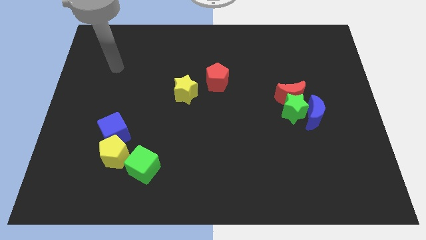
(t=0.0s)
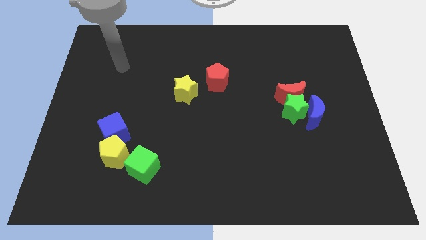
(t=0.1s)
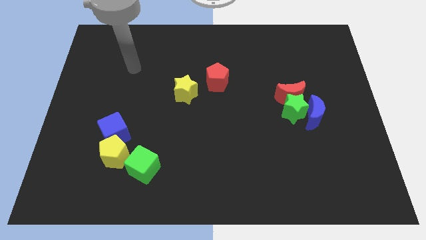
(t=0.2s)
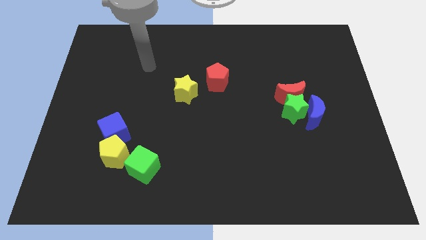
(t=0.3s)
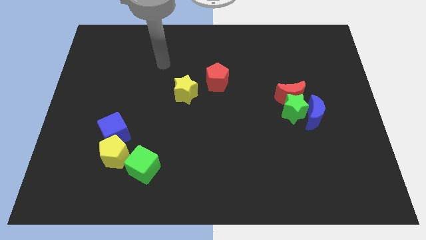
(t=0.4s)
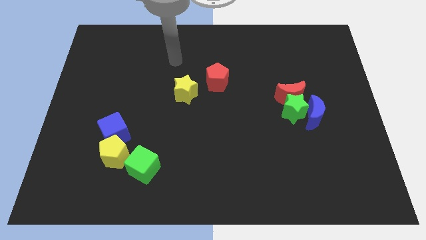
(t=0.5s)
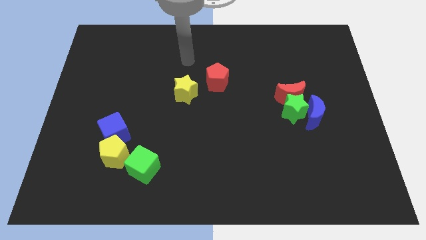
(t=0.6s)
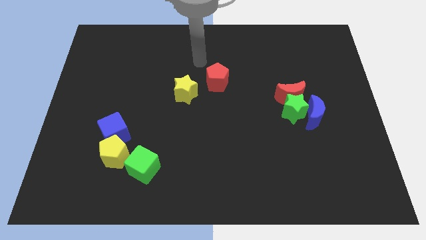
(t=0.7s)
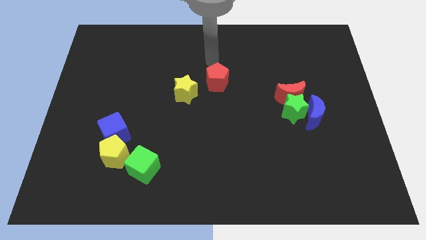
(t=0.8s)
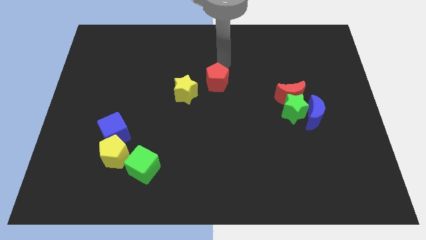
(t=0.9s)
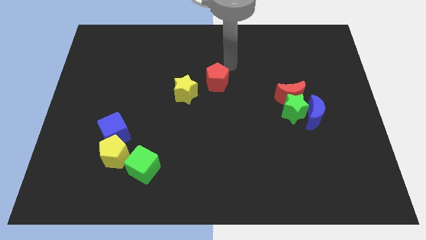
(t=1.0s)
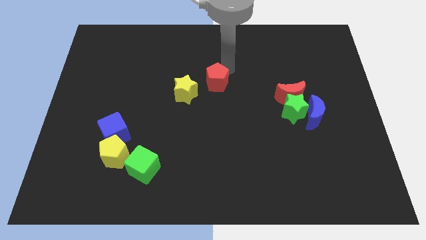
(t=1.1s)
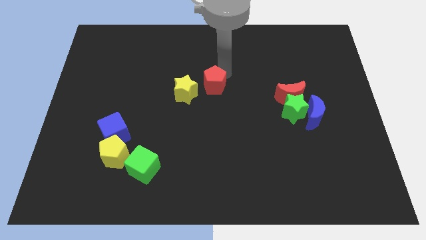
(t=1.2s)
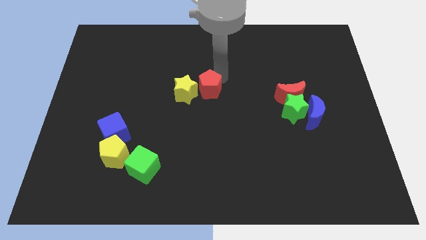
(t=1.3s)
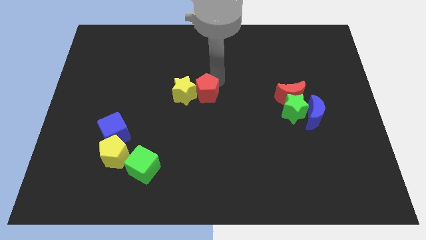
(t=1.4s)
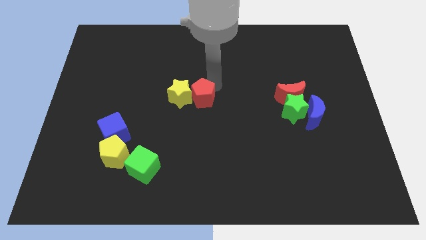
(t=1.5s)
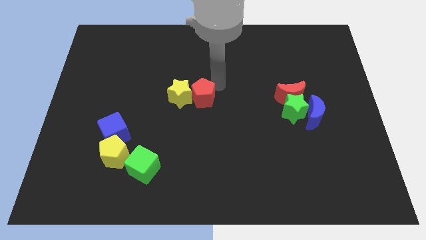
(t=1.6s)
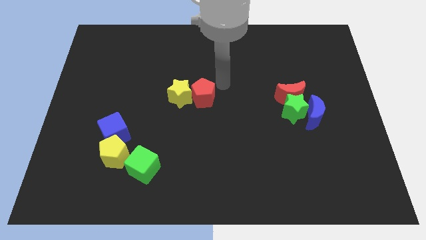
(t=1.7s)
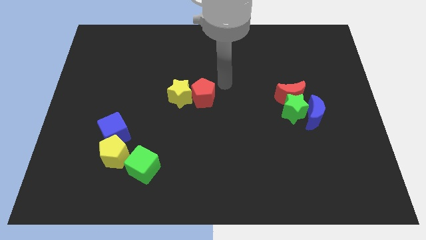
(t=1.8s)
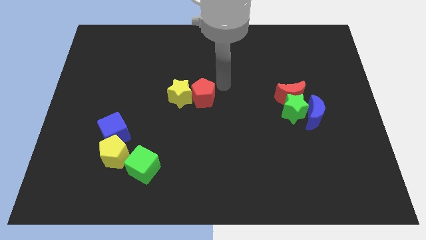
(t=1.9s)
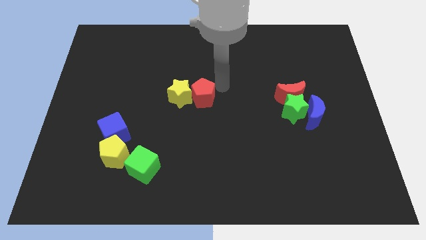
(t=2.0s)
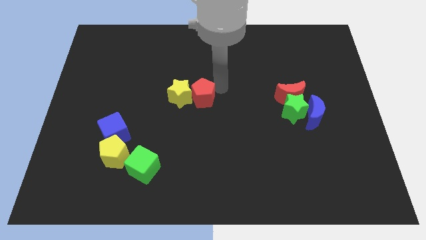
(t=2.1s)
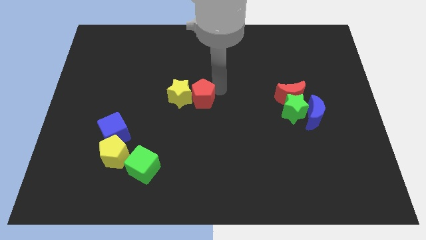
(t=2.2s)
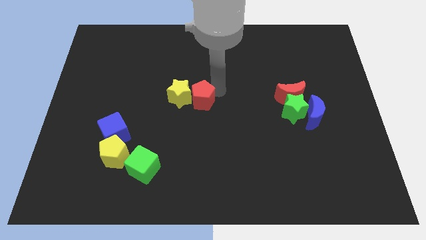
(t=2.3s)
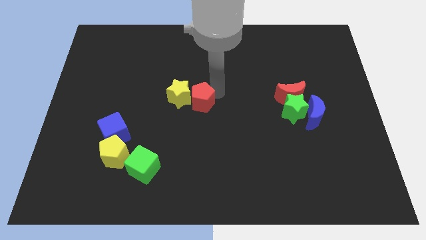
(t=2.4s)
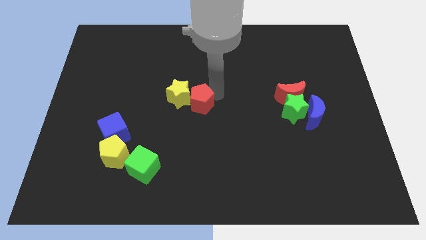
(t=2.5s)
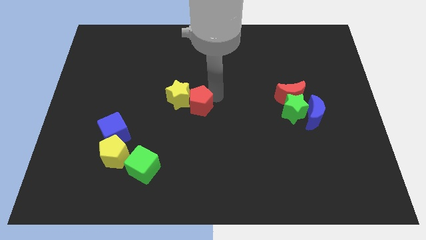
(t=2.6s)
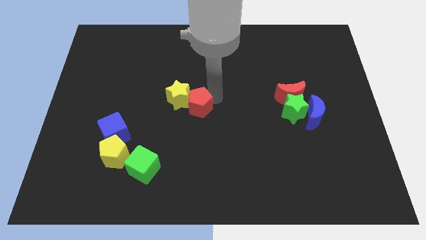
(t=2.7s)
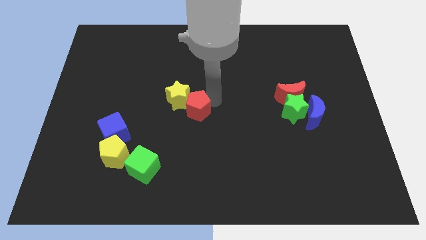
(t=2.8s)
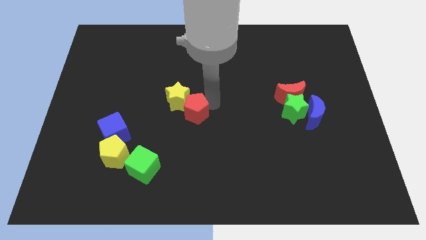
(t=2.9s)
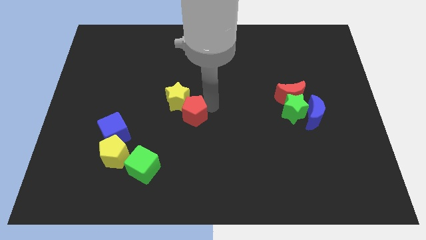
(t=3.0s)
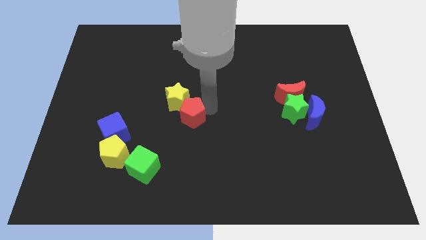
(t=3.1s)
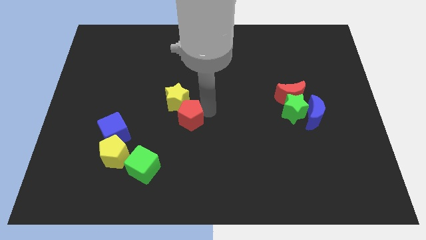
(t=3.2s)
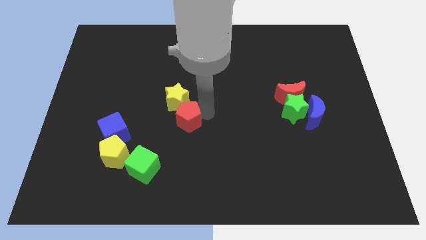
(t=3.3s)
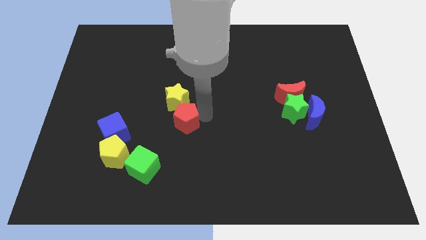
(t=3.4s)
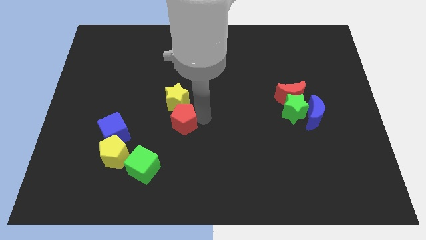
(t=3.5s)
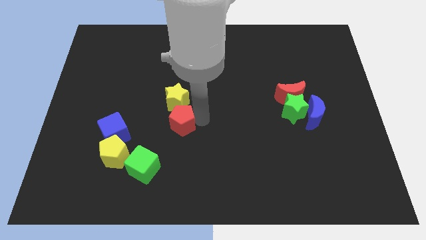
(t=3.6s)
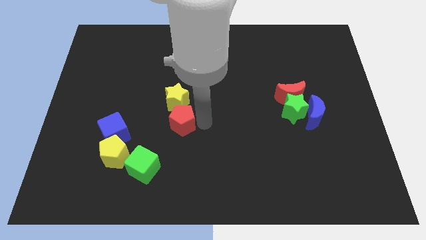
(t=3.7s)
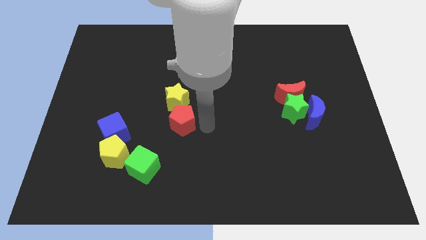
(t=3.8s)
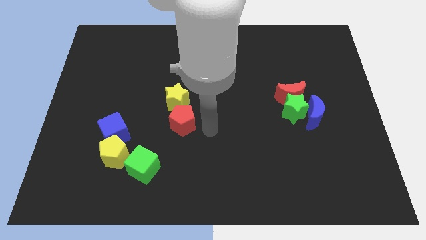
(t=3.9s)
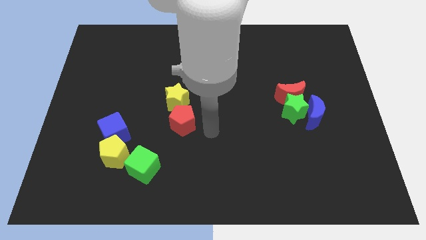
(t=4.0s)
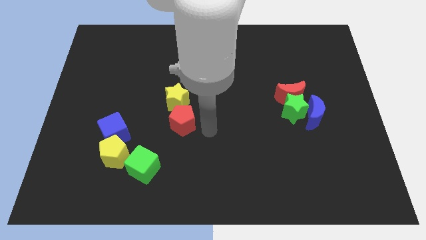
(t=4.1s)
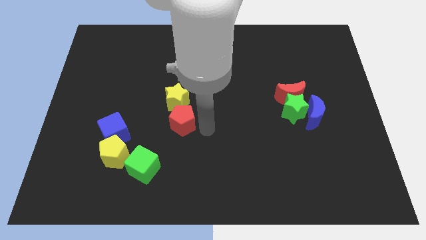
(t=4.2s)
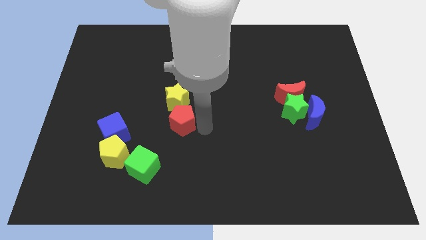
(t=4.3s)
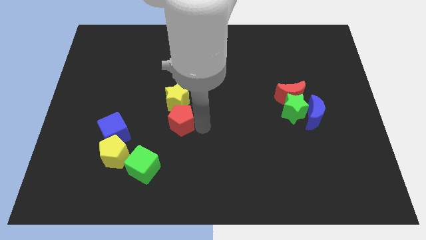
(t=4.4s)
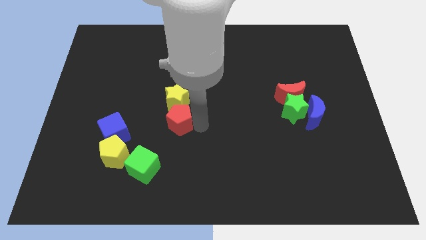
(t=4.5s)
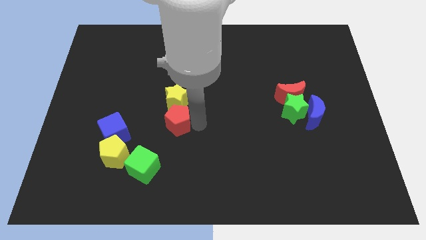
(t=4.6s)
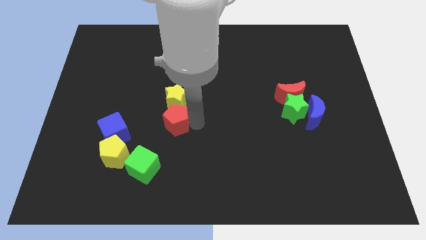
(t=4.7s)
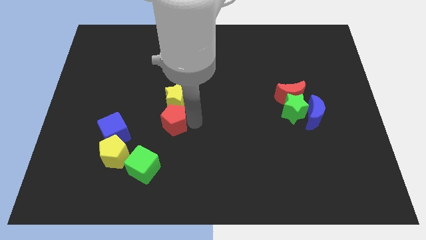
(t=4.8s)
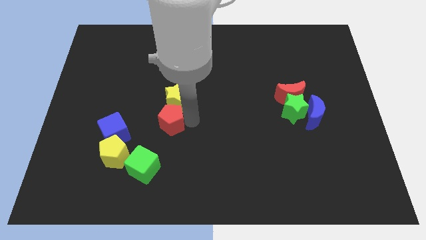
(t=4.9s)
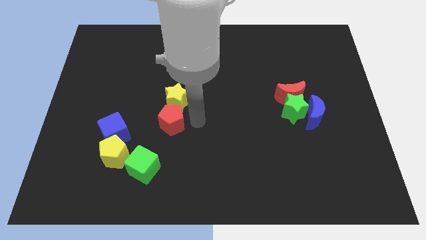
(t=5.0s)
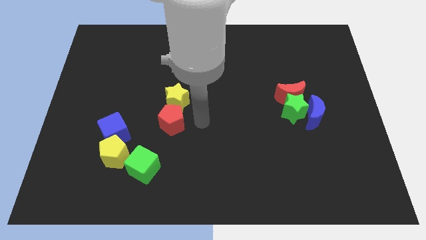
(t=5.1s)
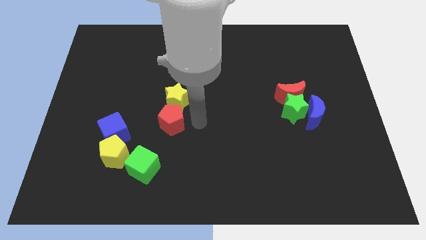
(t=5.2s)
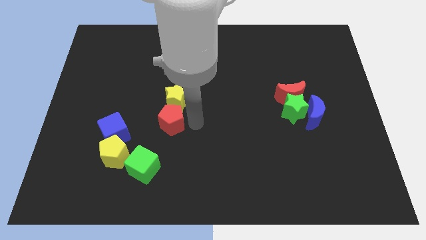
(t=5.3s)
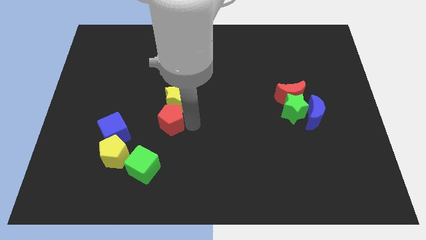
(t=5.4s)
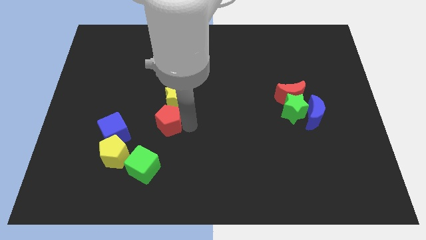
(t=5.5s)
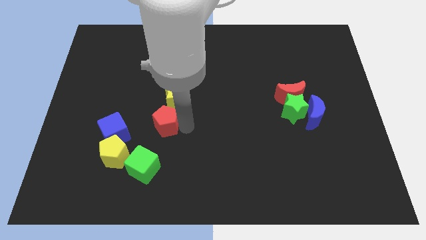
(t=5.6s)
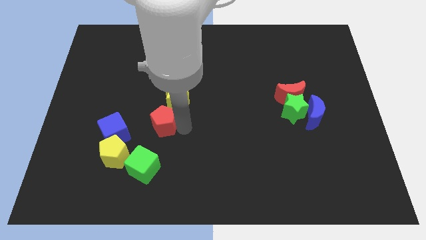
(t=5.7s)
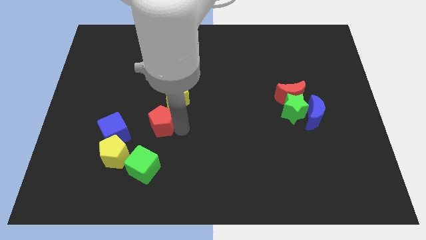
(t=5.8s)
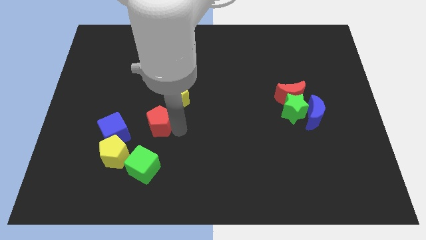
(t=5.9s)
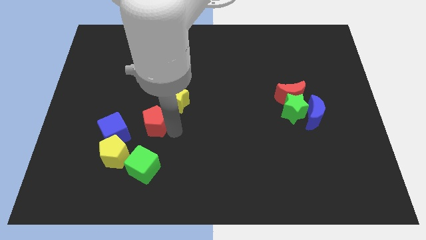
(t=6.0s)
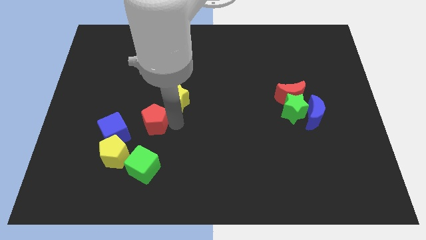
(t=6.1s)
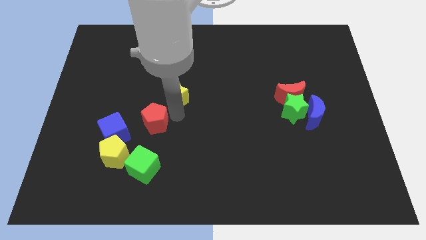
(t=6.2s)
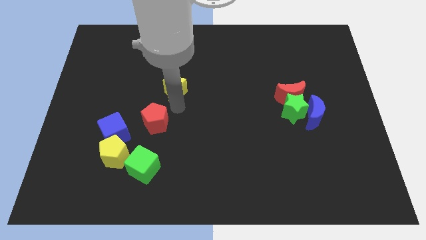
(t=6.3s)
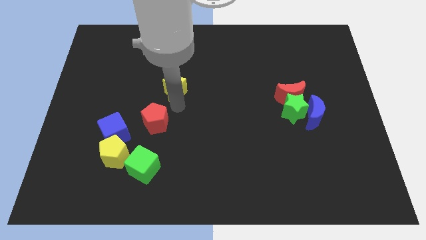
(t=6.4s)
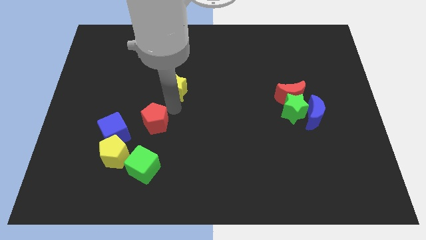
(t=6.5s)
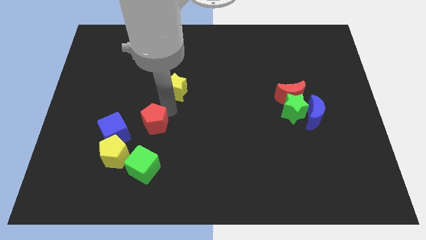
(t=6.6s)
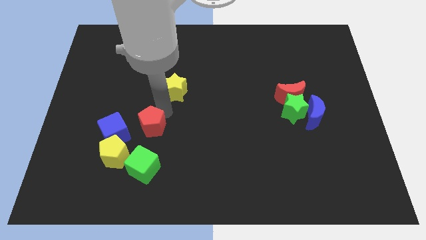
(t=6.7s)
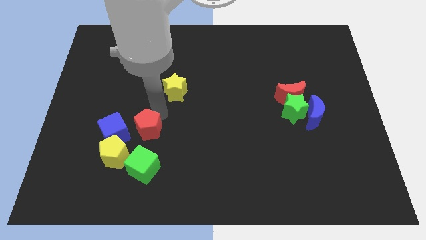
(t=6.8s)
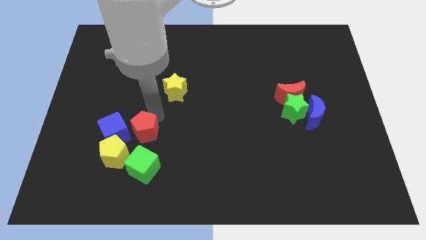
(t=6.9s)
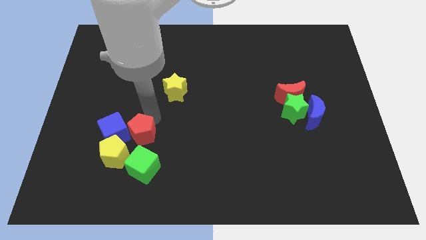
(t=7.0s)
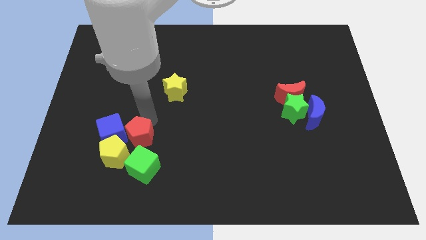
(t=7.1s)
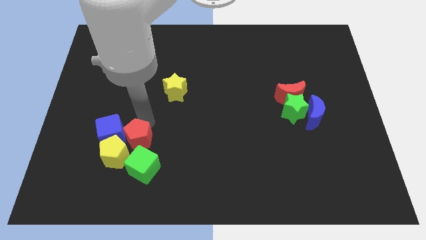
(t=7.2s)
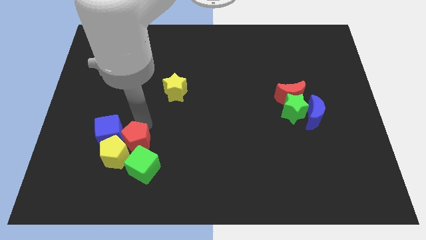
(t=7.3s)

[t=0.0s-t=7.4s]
put the red pentagon close to the yellow pentagon
